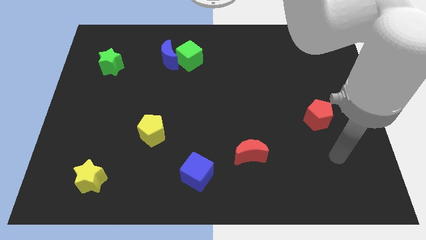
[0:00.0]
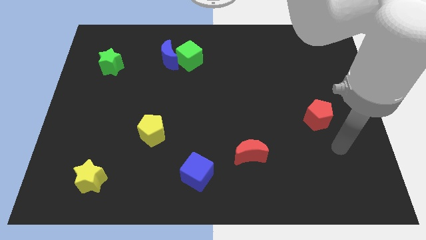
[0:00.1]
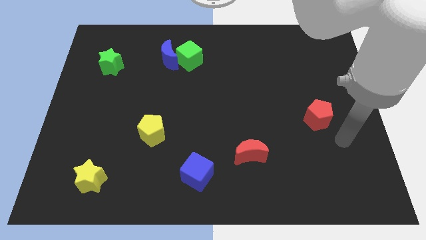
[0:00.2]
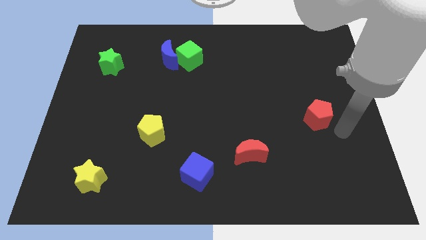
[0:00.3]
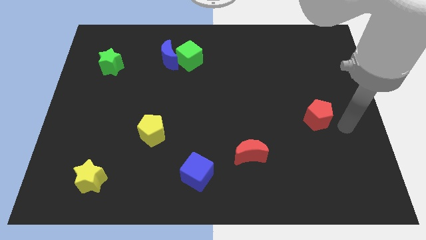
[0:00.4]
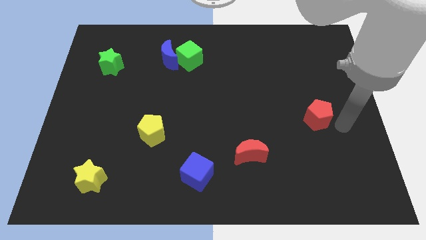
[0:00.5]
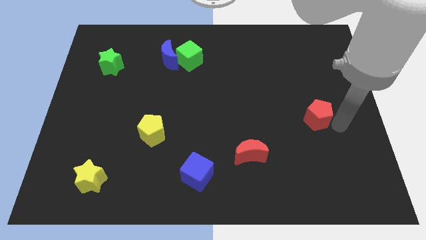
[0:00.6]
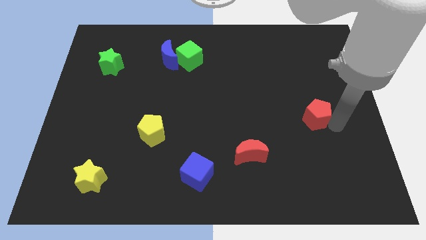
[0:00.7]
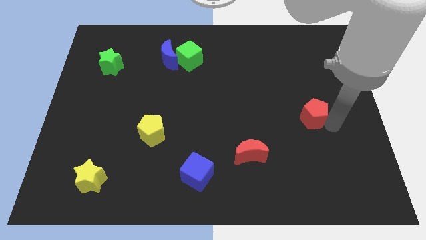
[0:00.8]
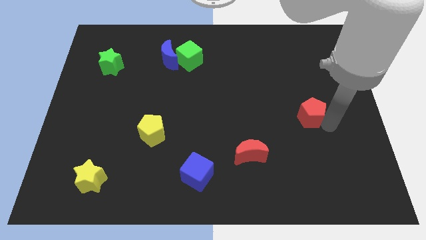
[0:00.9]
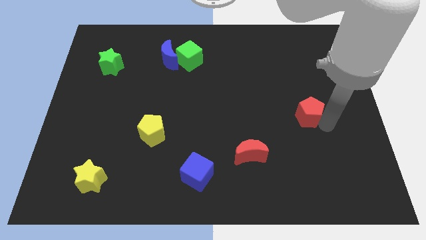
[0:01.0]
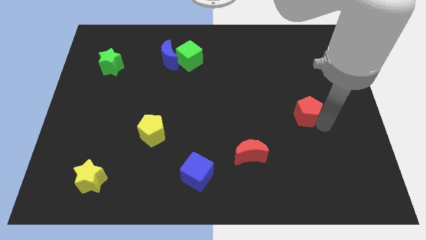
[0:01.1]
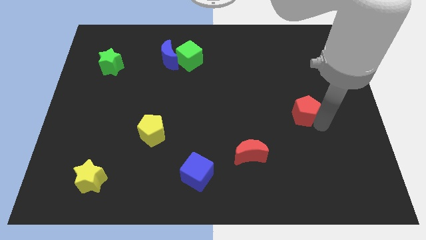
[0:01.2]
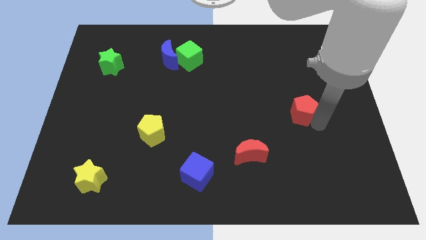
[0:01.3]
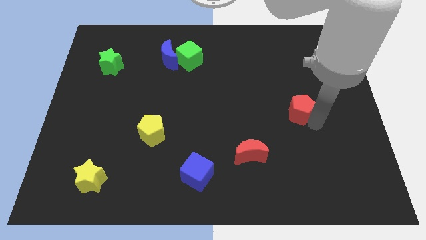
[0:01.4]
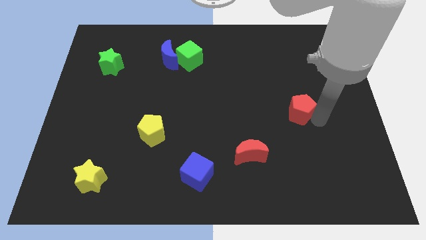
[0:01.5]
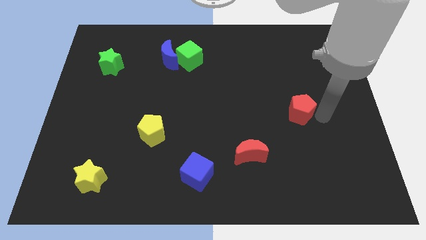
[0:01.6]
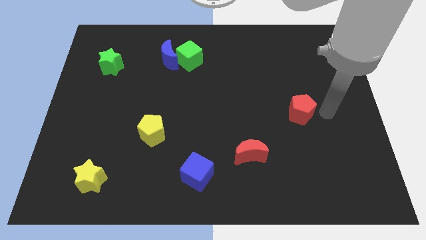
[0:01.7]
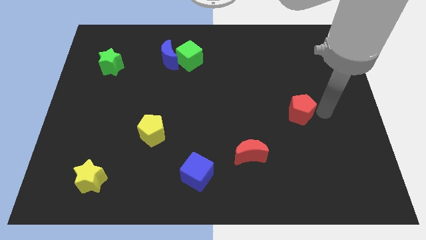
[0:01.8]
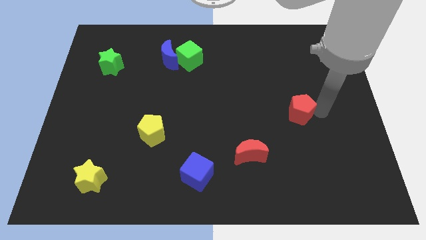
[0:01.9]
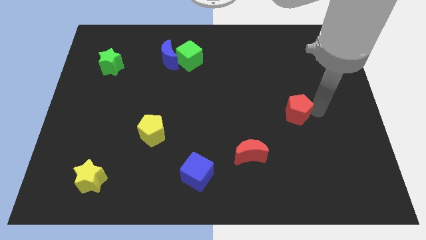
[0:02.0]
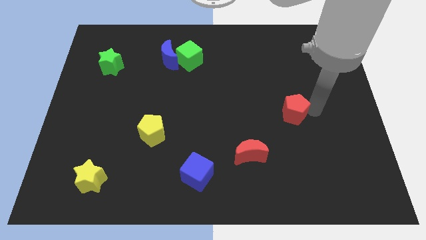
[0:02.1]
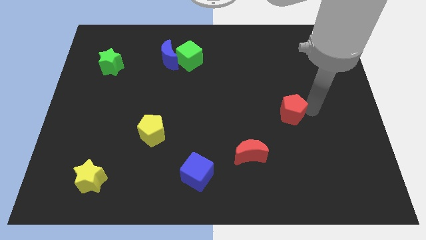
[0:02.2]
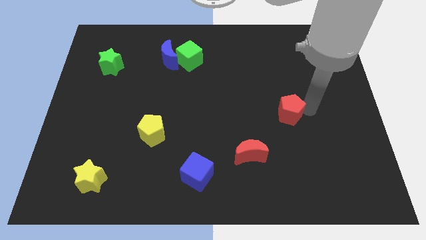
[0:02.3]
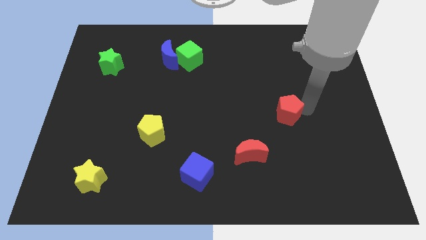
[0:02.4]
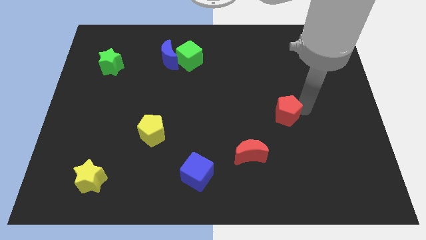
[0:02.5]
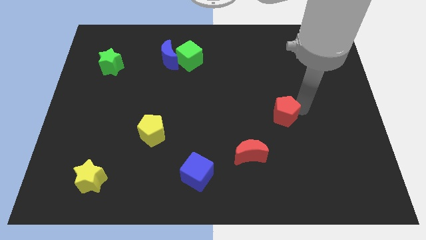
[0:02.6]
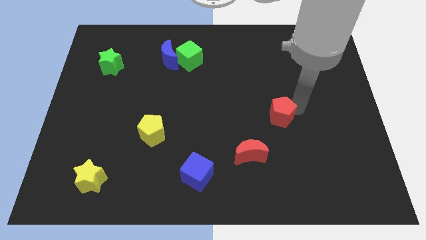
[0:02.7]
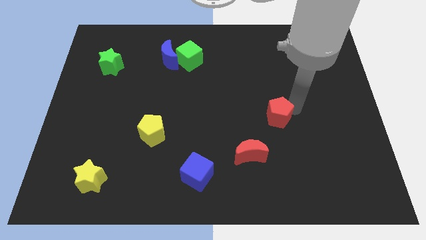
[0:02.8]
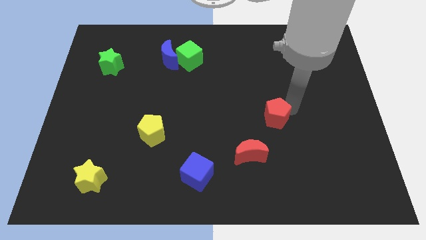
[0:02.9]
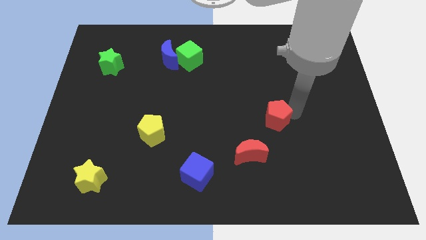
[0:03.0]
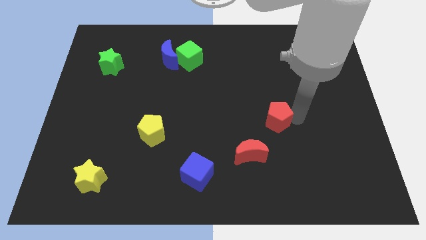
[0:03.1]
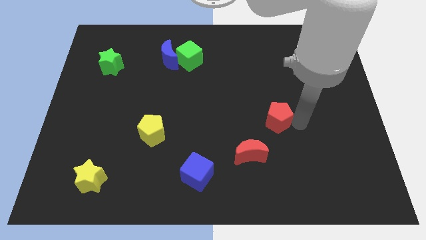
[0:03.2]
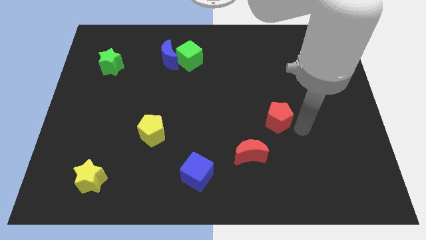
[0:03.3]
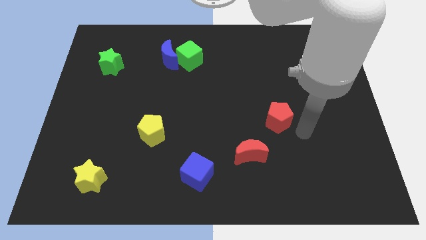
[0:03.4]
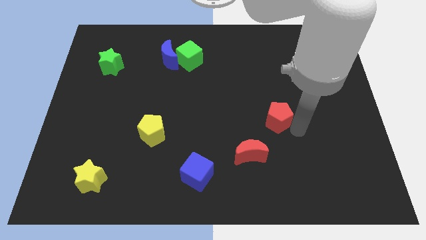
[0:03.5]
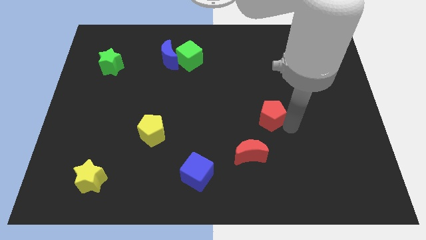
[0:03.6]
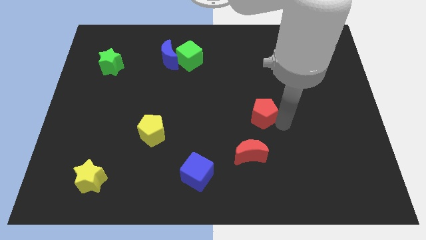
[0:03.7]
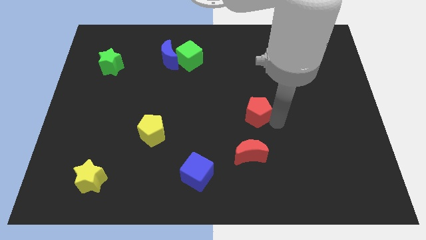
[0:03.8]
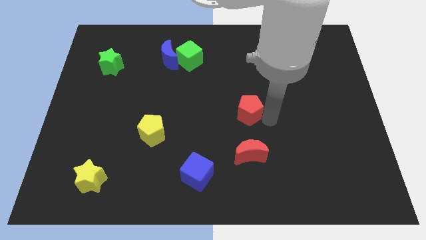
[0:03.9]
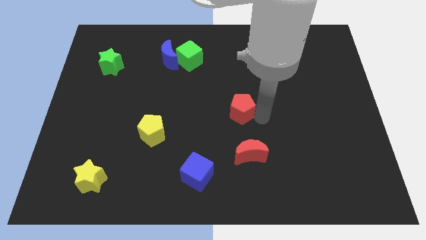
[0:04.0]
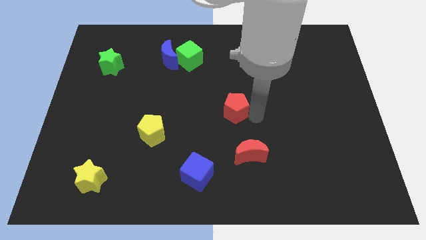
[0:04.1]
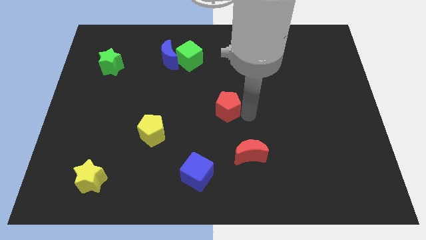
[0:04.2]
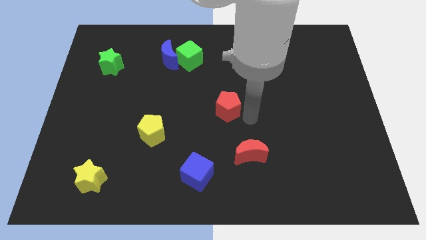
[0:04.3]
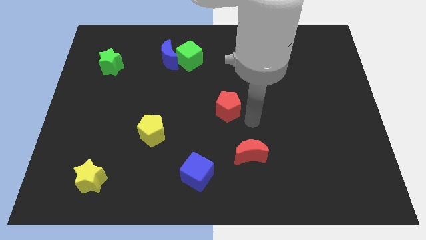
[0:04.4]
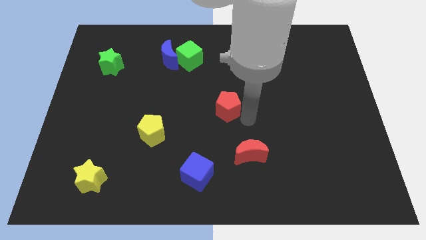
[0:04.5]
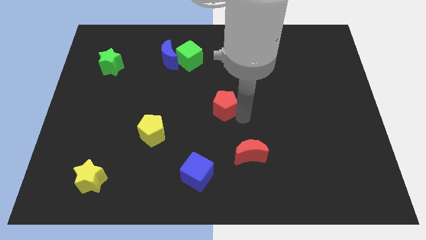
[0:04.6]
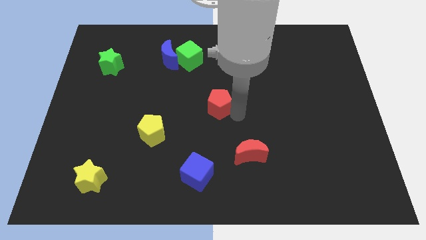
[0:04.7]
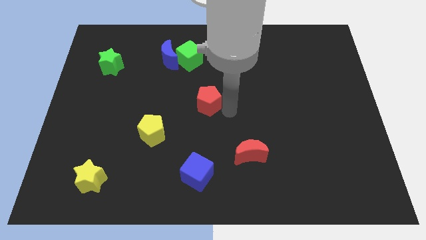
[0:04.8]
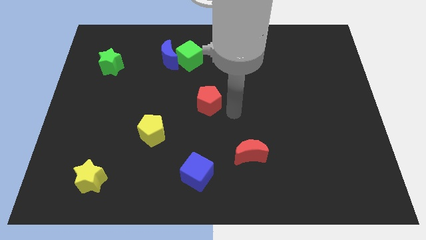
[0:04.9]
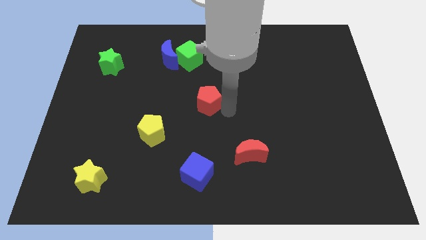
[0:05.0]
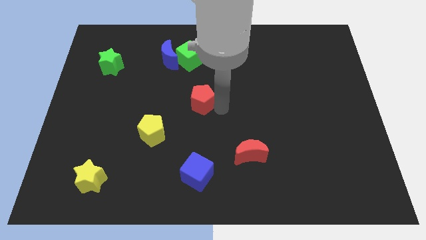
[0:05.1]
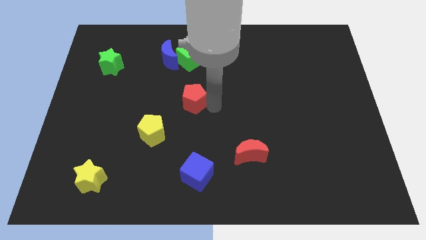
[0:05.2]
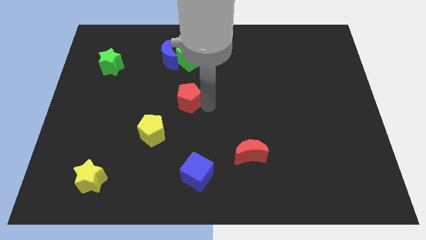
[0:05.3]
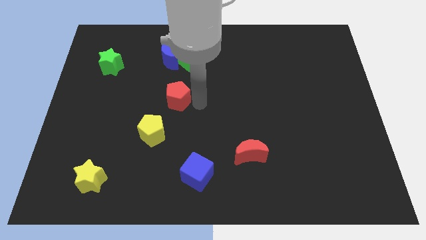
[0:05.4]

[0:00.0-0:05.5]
put the red pentagon to the top side of the yellow pentagon

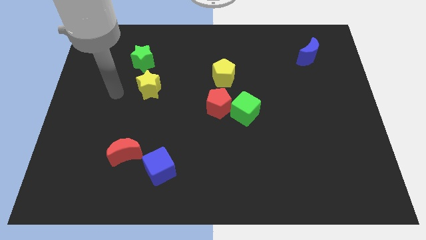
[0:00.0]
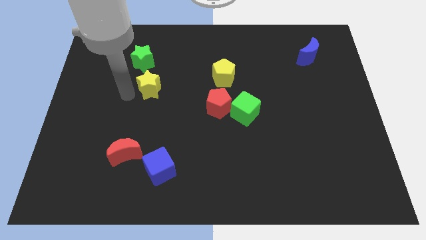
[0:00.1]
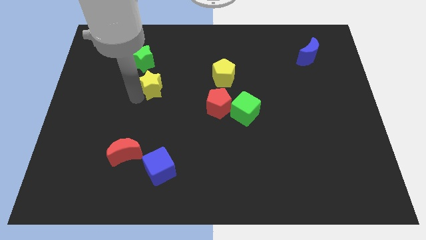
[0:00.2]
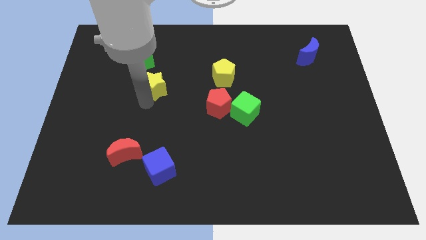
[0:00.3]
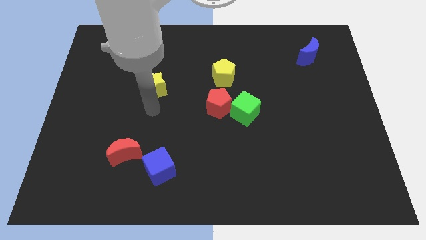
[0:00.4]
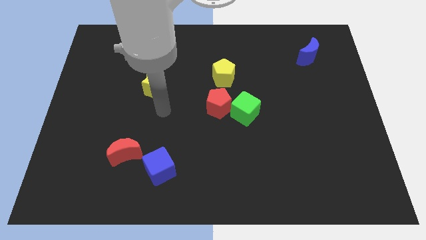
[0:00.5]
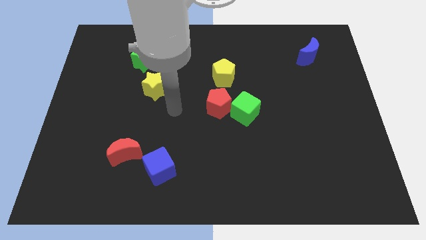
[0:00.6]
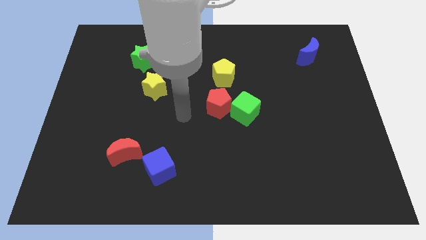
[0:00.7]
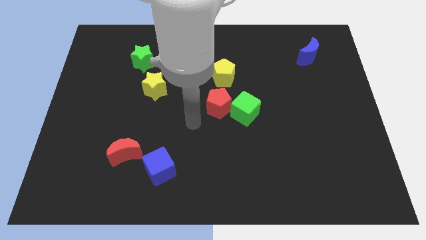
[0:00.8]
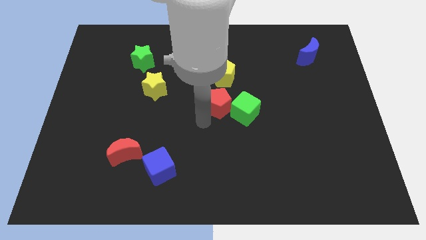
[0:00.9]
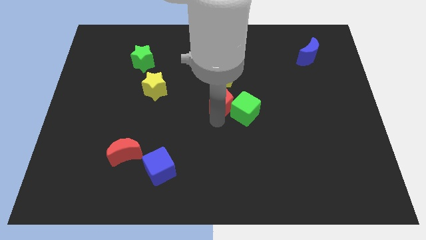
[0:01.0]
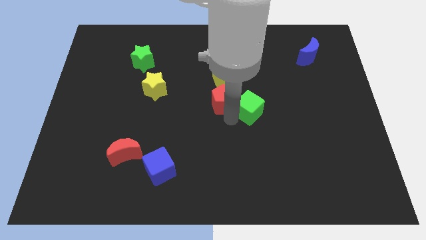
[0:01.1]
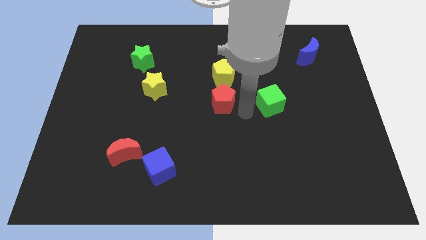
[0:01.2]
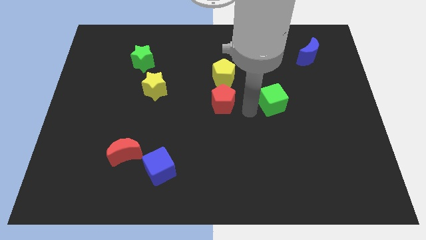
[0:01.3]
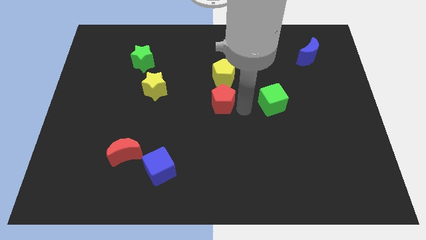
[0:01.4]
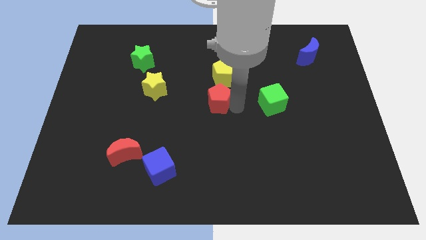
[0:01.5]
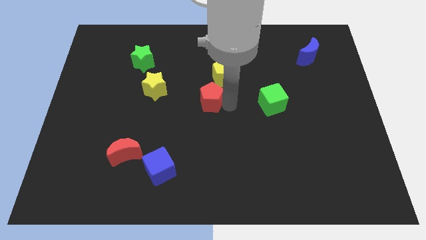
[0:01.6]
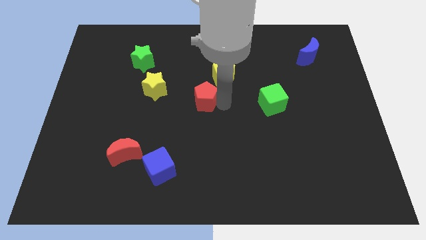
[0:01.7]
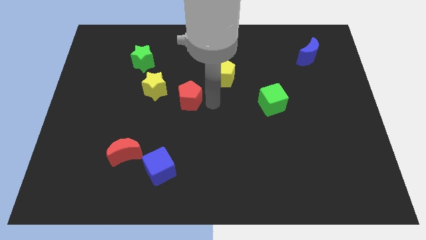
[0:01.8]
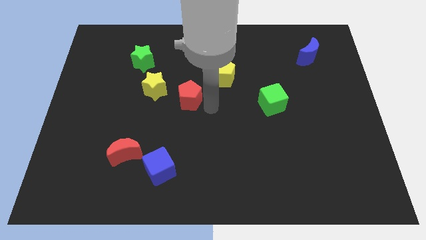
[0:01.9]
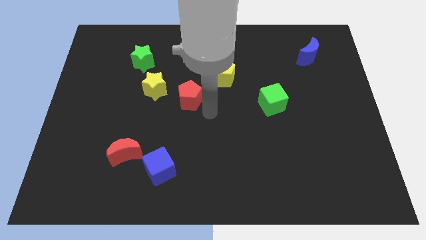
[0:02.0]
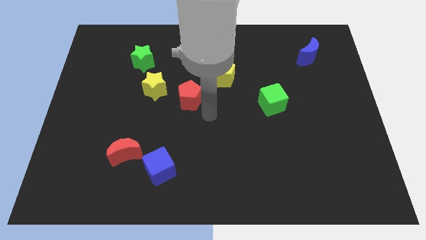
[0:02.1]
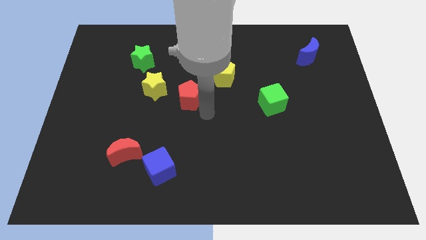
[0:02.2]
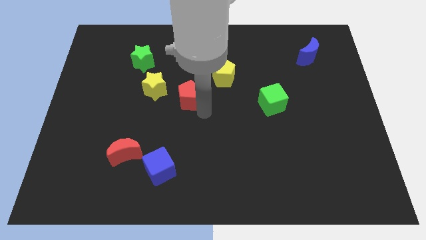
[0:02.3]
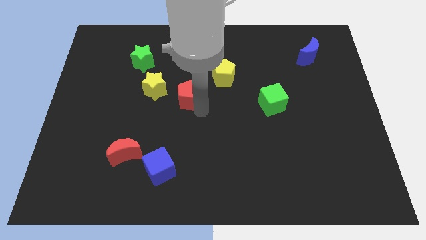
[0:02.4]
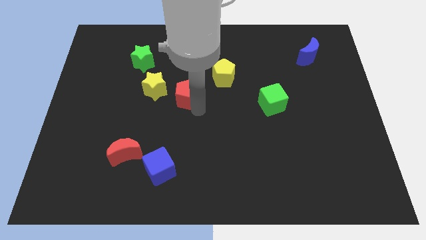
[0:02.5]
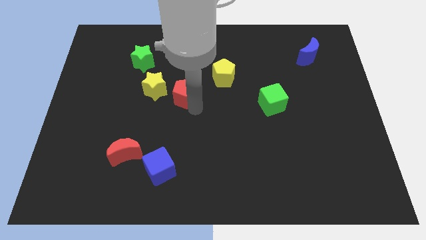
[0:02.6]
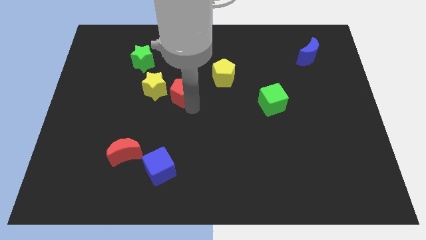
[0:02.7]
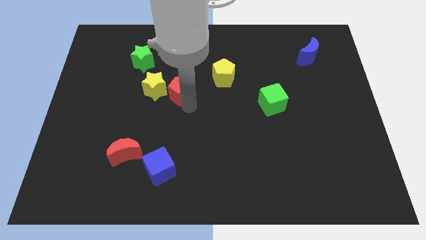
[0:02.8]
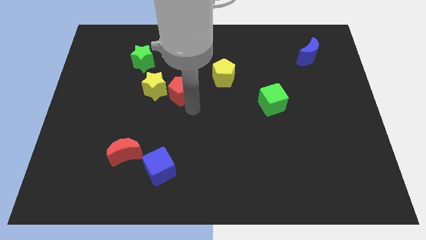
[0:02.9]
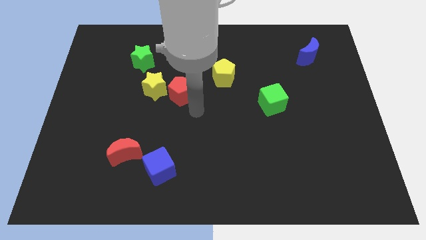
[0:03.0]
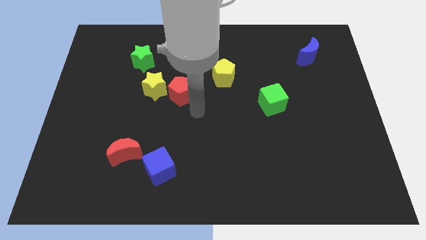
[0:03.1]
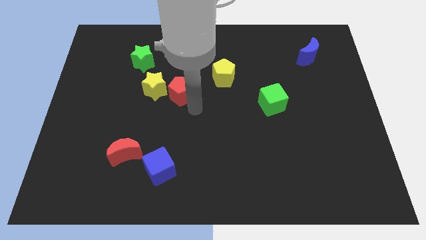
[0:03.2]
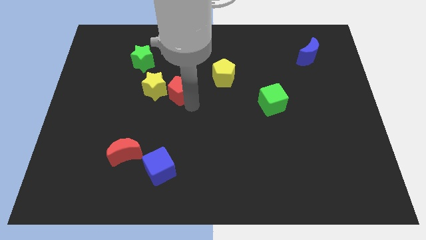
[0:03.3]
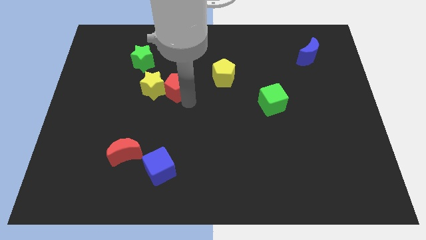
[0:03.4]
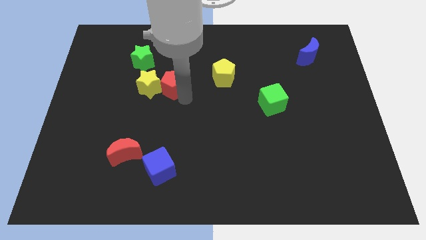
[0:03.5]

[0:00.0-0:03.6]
slide the red pentagon diagonally down and to the right of the green star
